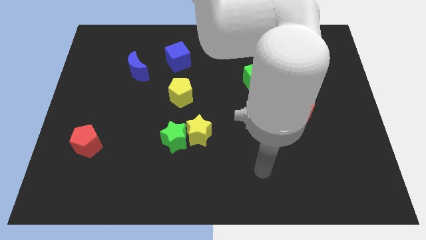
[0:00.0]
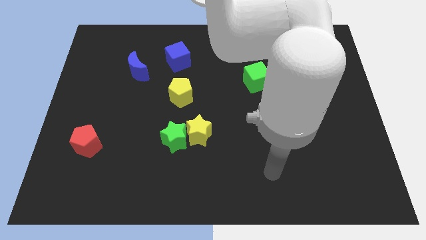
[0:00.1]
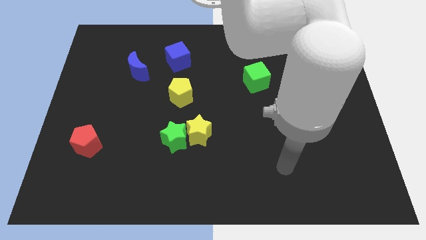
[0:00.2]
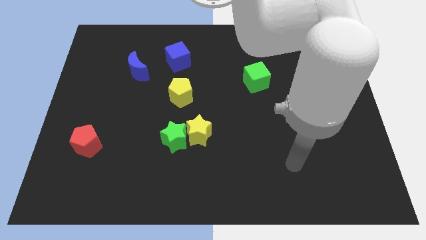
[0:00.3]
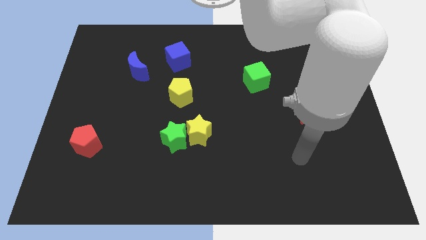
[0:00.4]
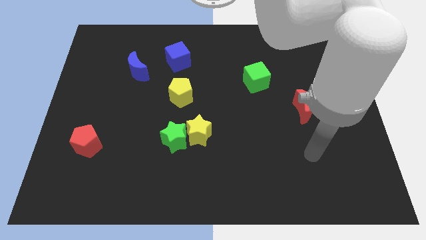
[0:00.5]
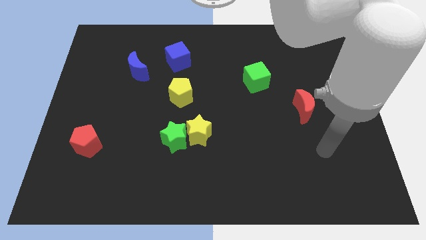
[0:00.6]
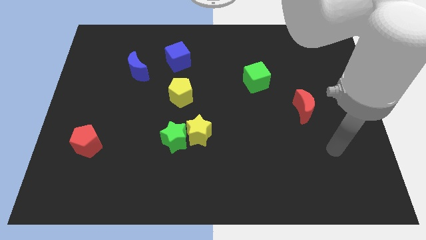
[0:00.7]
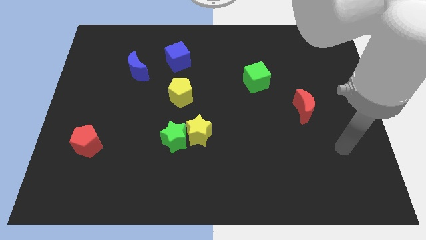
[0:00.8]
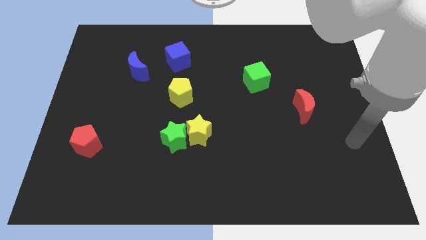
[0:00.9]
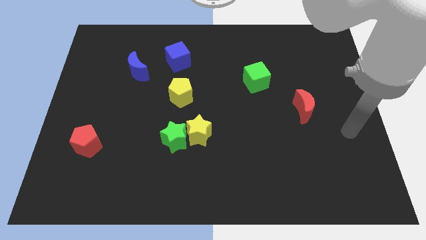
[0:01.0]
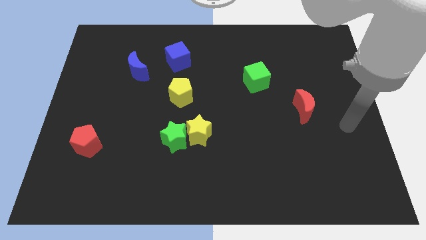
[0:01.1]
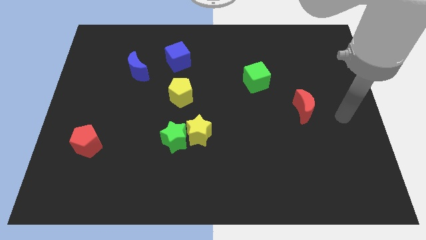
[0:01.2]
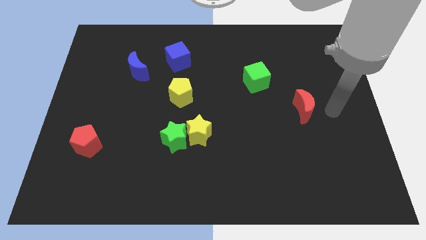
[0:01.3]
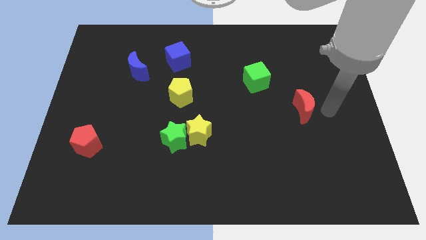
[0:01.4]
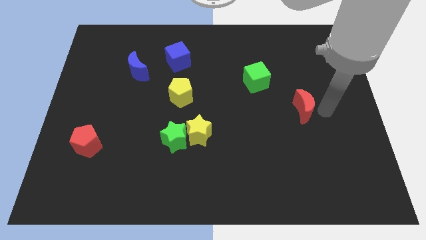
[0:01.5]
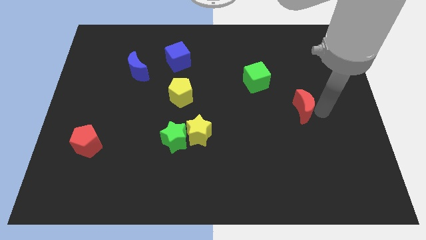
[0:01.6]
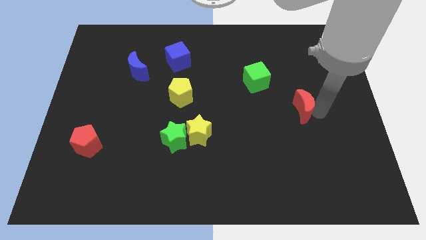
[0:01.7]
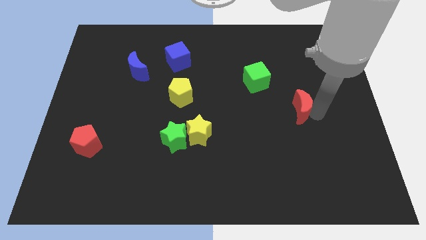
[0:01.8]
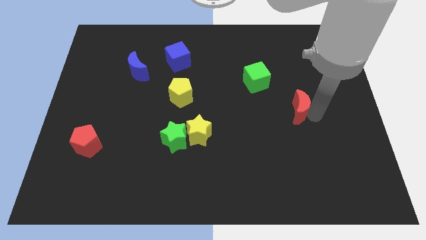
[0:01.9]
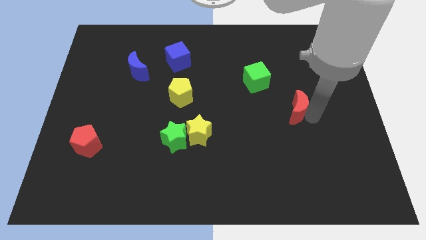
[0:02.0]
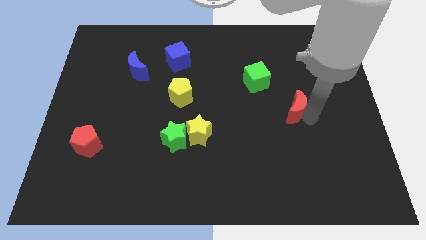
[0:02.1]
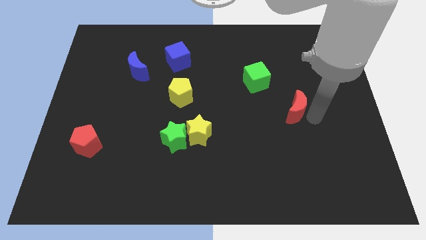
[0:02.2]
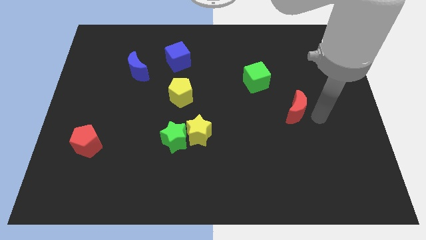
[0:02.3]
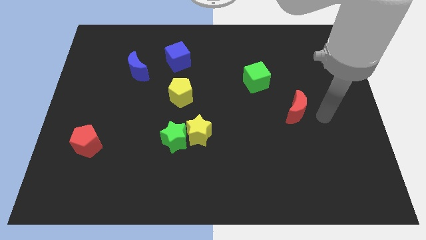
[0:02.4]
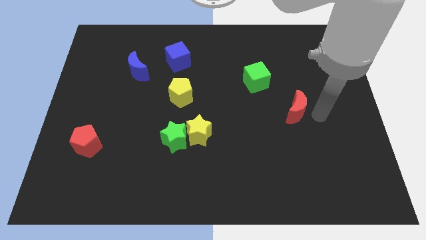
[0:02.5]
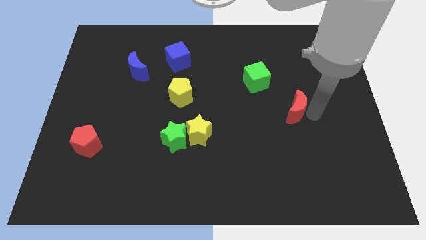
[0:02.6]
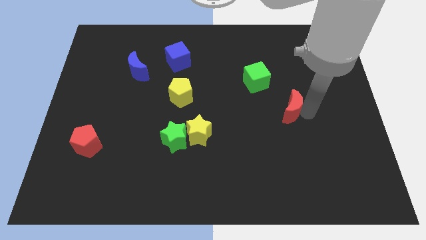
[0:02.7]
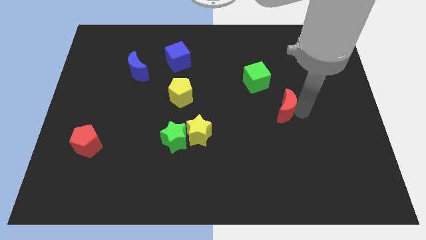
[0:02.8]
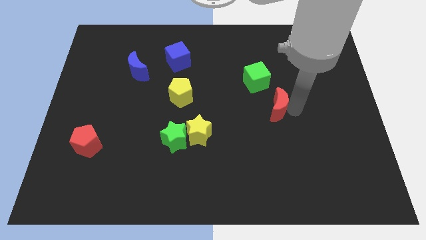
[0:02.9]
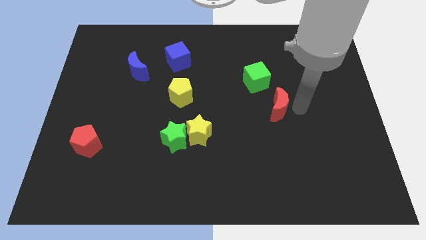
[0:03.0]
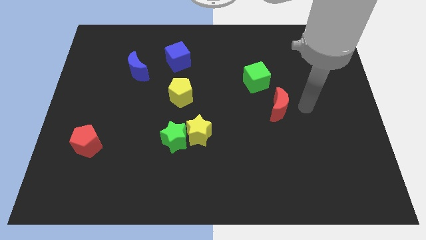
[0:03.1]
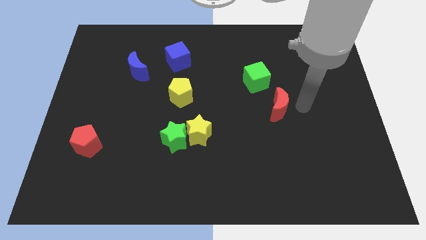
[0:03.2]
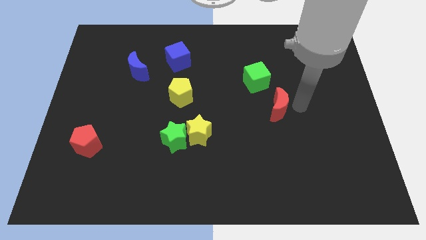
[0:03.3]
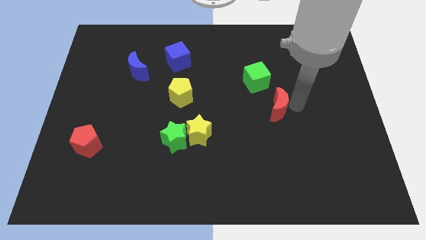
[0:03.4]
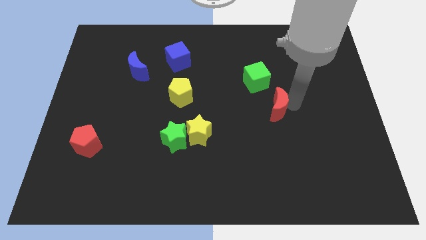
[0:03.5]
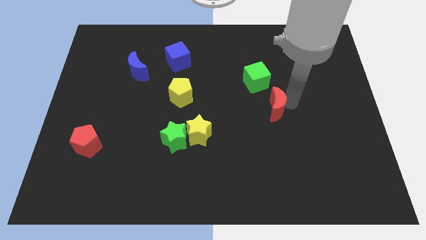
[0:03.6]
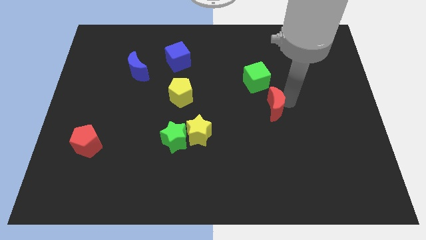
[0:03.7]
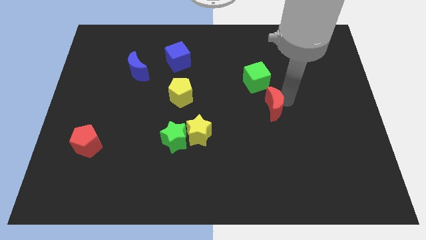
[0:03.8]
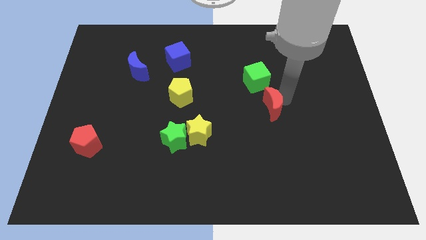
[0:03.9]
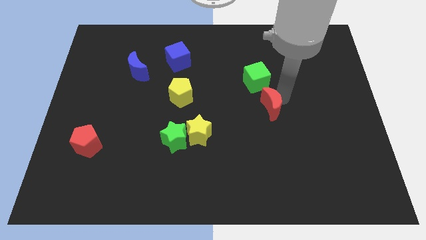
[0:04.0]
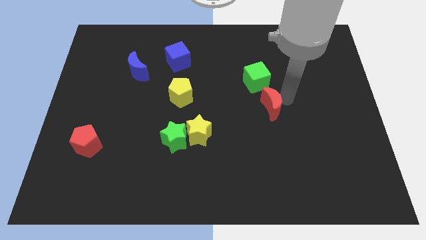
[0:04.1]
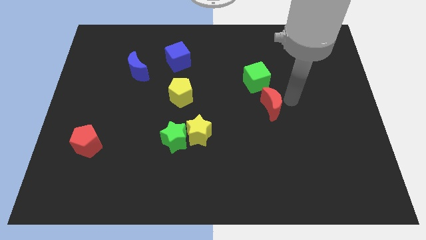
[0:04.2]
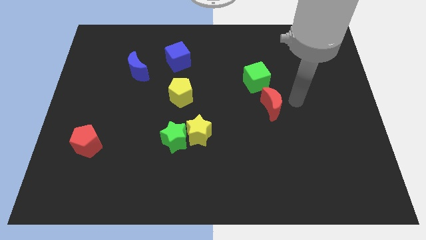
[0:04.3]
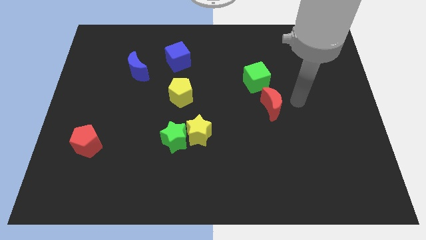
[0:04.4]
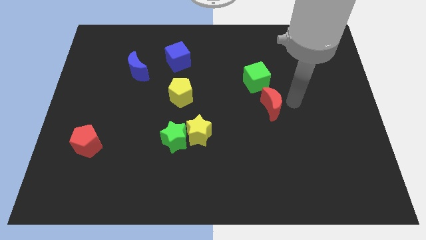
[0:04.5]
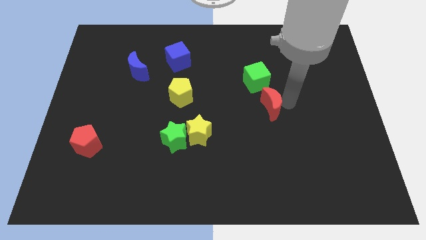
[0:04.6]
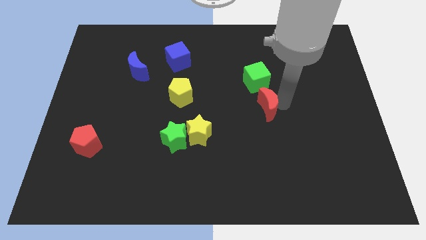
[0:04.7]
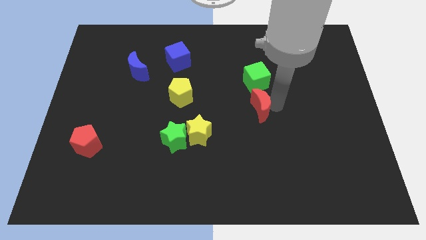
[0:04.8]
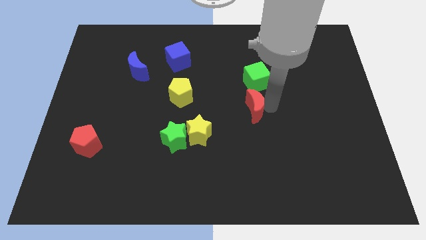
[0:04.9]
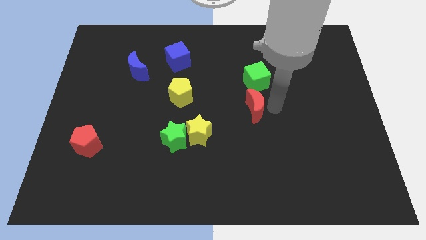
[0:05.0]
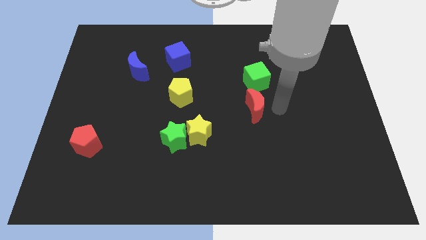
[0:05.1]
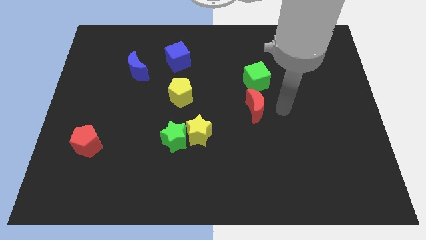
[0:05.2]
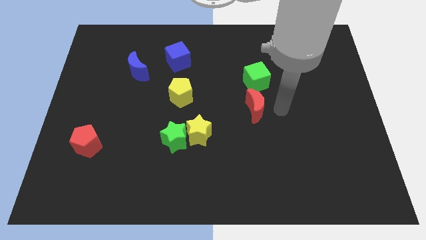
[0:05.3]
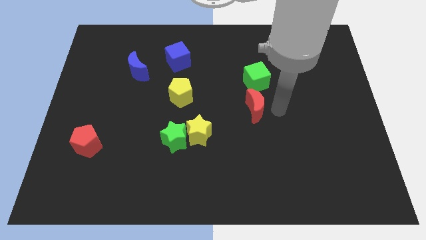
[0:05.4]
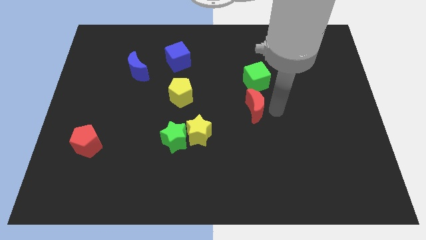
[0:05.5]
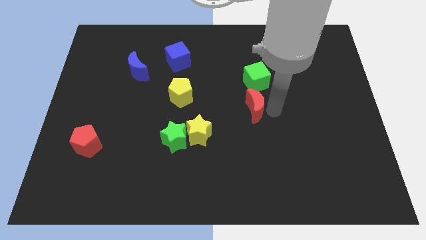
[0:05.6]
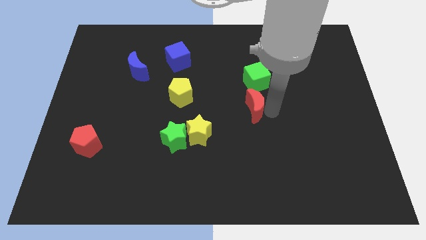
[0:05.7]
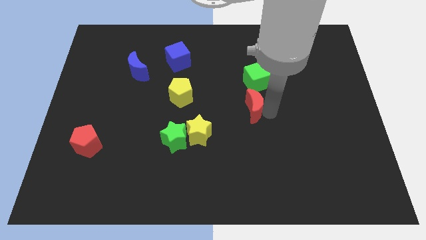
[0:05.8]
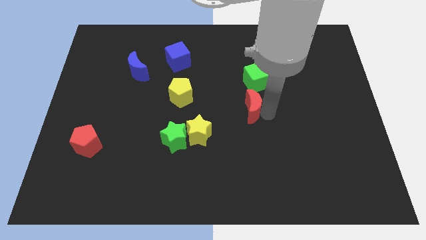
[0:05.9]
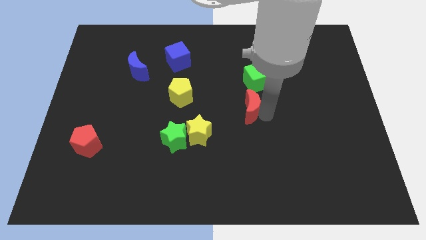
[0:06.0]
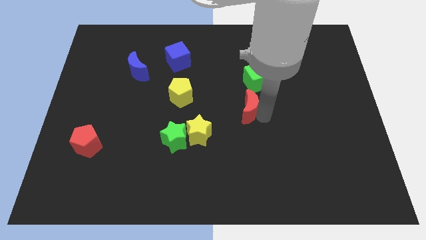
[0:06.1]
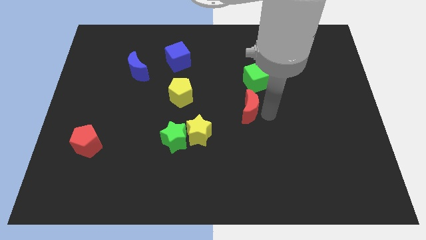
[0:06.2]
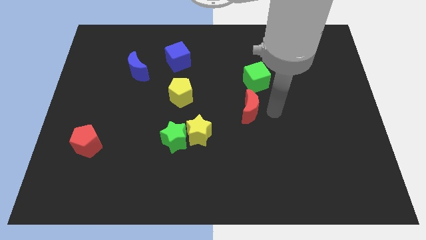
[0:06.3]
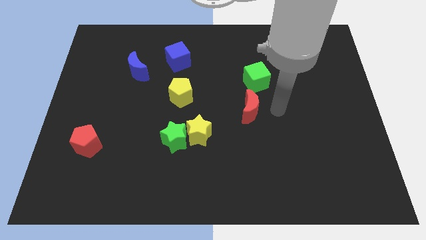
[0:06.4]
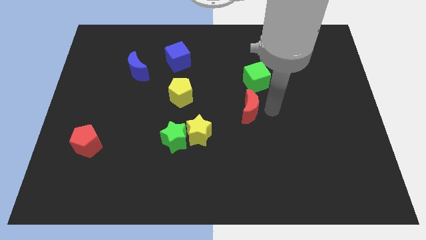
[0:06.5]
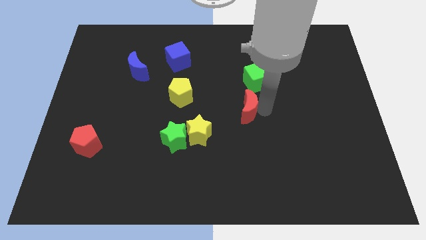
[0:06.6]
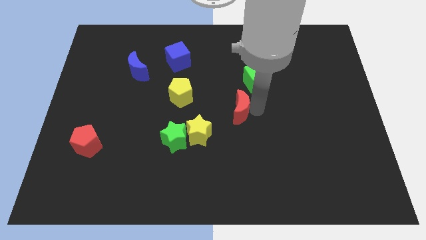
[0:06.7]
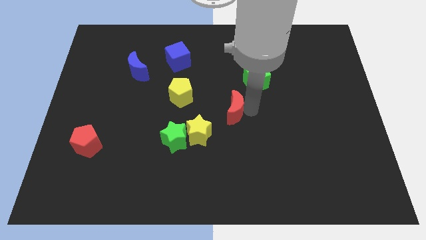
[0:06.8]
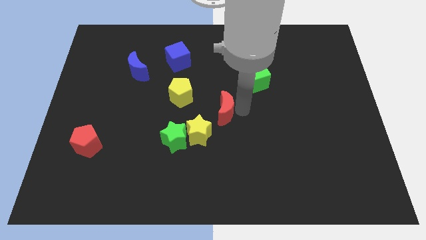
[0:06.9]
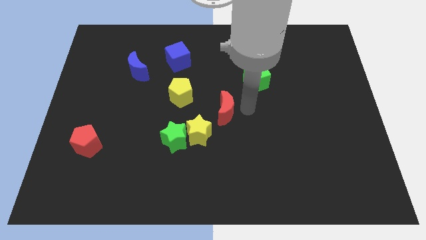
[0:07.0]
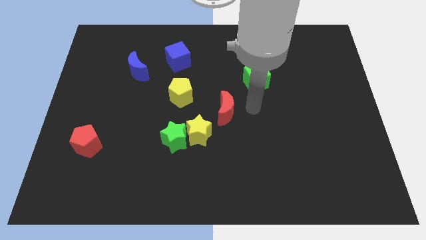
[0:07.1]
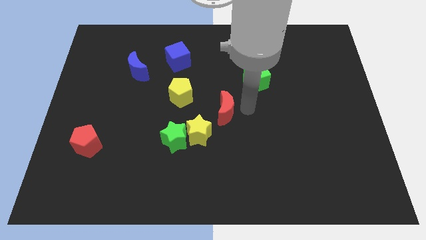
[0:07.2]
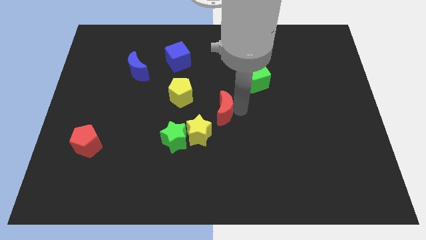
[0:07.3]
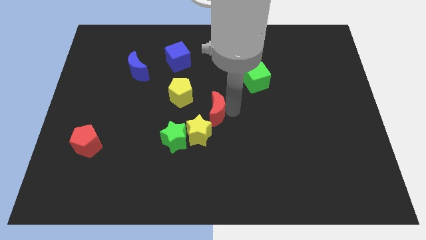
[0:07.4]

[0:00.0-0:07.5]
slide the red moon left

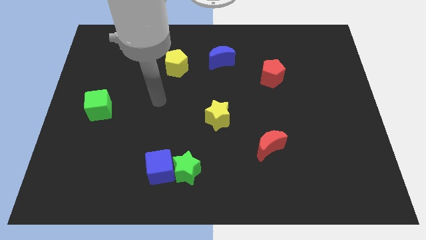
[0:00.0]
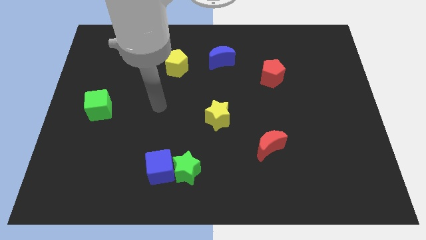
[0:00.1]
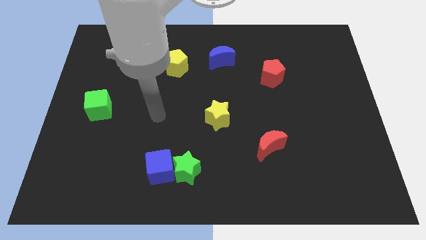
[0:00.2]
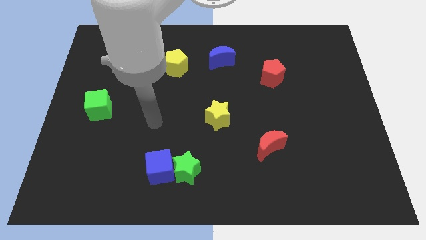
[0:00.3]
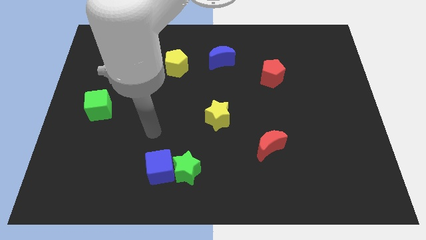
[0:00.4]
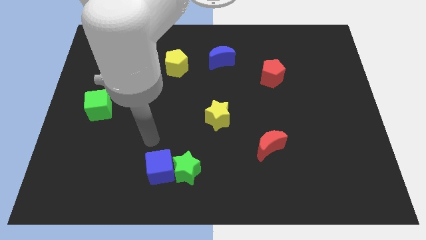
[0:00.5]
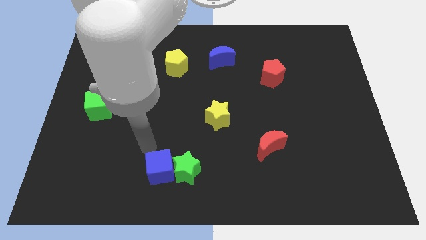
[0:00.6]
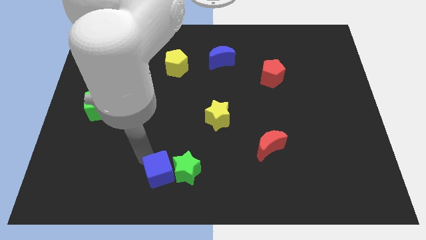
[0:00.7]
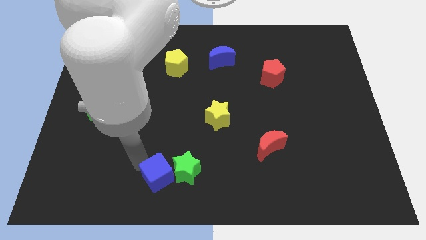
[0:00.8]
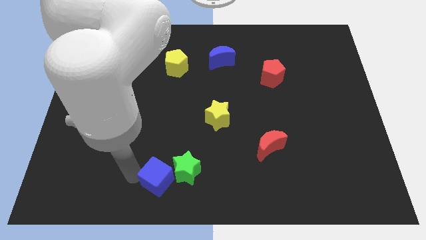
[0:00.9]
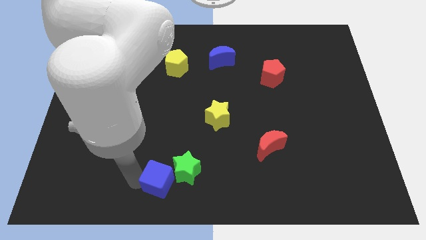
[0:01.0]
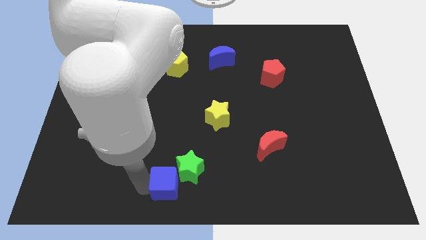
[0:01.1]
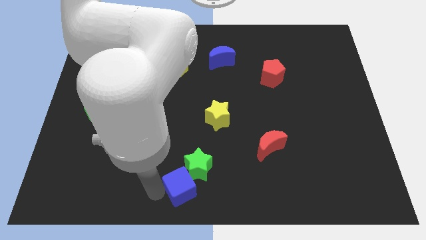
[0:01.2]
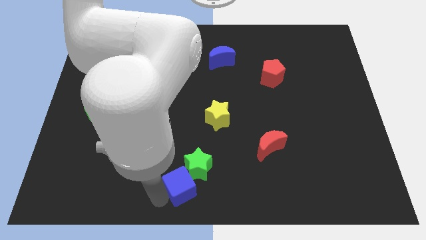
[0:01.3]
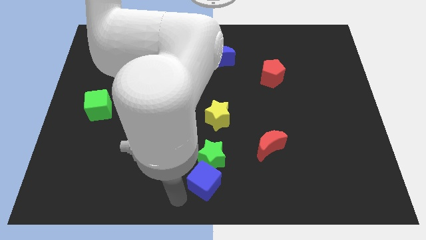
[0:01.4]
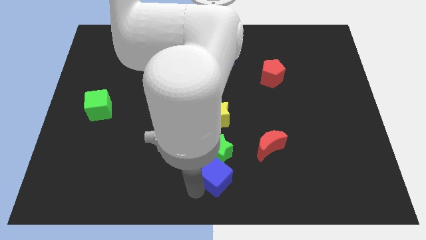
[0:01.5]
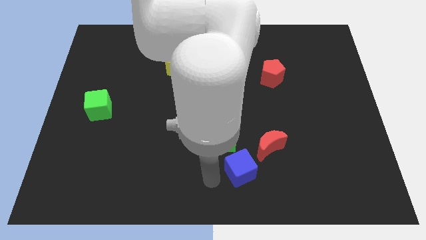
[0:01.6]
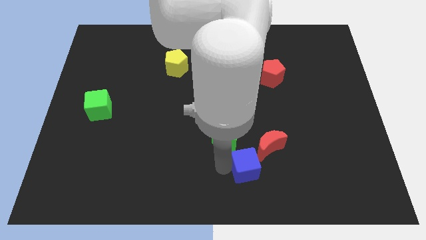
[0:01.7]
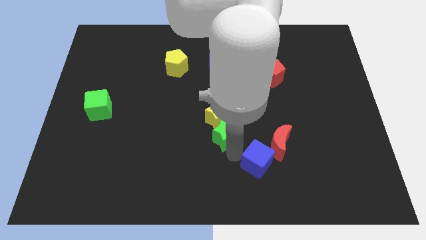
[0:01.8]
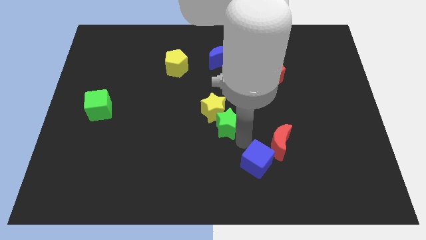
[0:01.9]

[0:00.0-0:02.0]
push the green star a bit upwards
